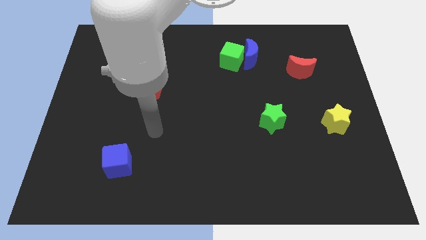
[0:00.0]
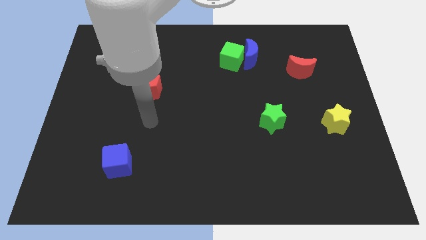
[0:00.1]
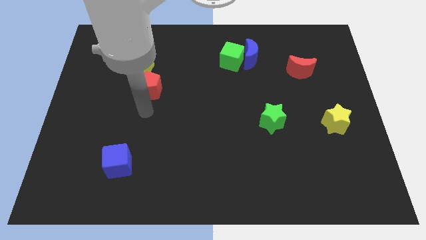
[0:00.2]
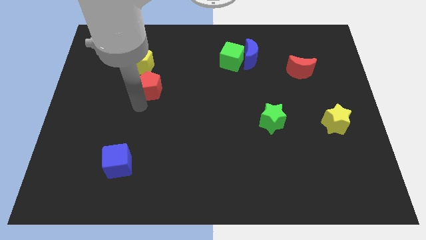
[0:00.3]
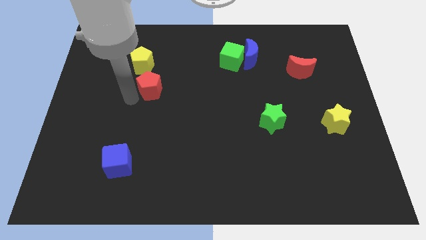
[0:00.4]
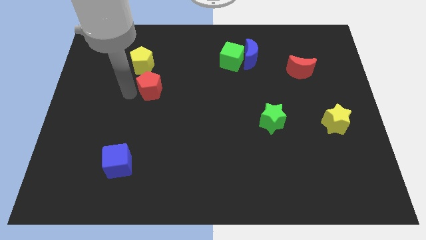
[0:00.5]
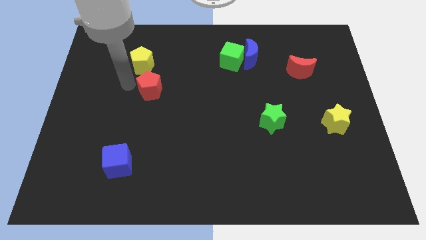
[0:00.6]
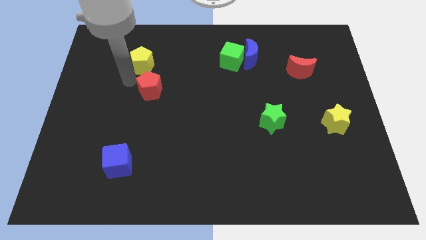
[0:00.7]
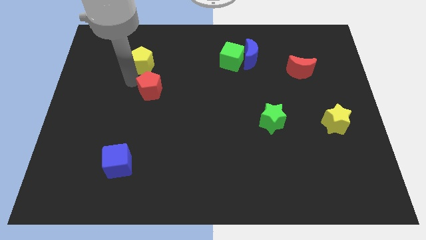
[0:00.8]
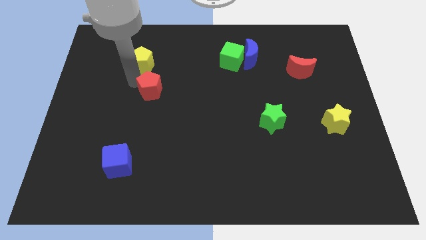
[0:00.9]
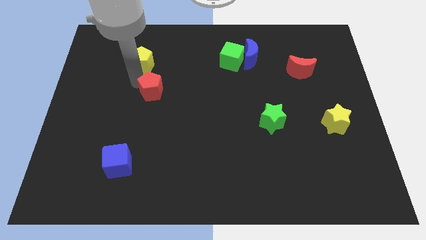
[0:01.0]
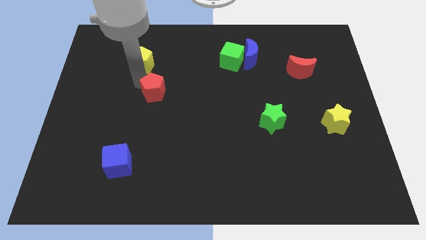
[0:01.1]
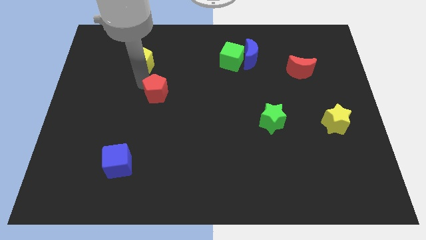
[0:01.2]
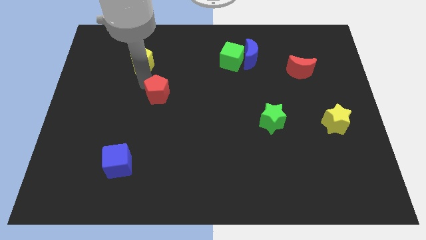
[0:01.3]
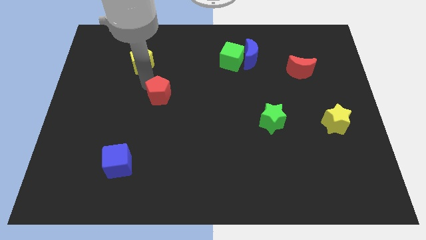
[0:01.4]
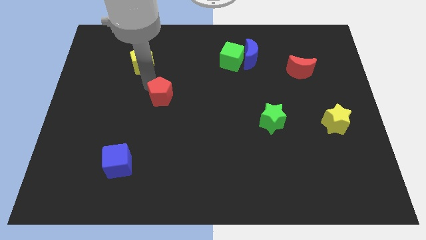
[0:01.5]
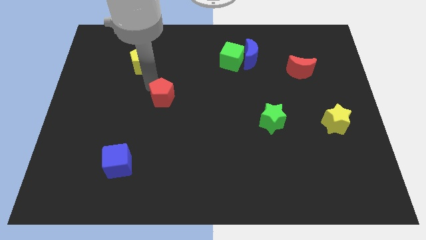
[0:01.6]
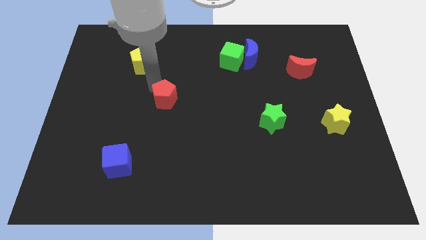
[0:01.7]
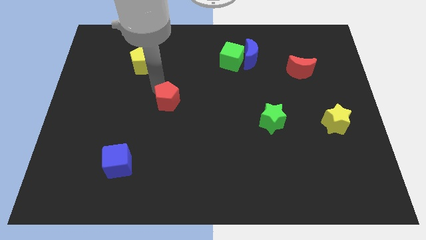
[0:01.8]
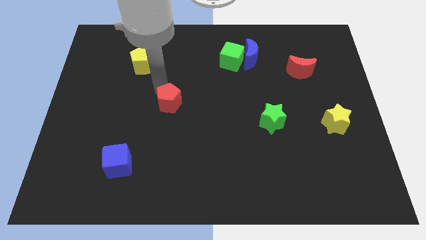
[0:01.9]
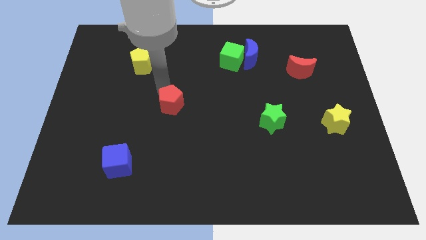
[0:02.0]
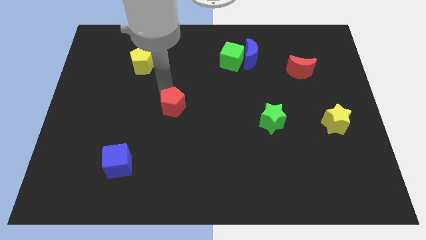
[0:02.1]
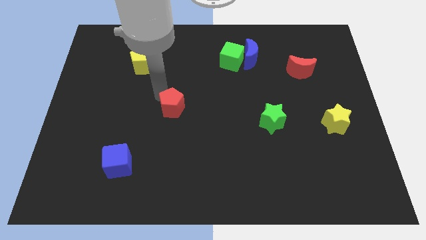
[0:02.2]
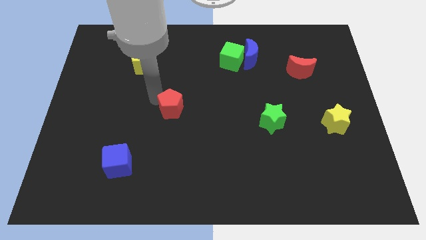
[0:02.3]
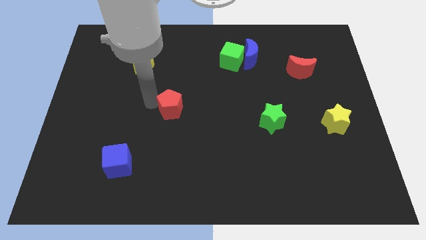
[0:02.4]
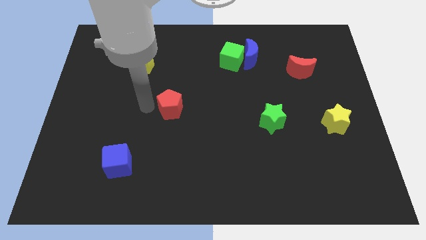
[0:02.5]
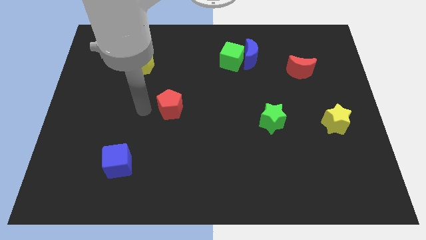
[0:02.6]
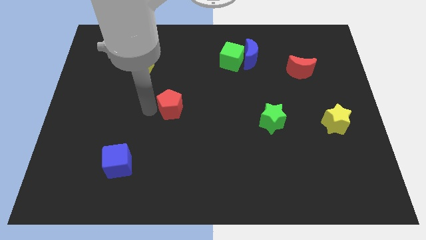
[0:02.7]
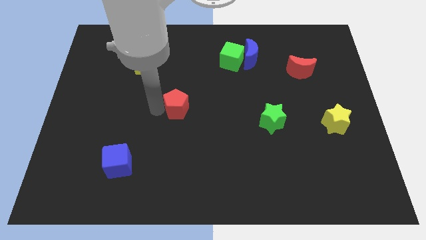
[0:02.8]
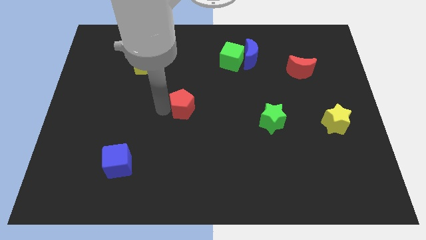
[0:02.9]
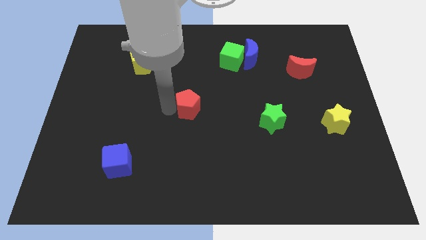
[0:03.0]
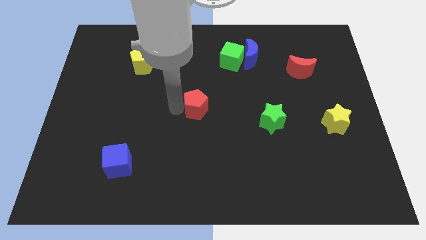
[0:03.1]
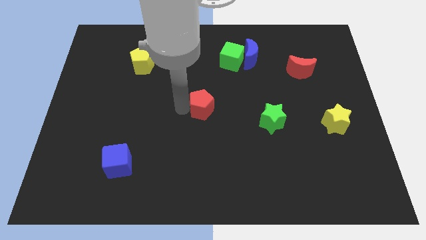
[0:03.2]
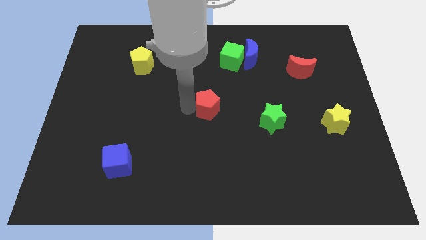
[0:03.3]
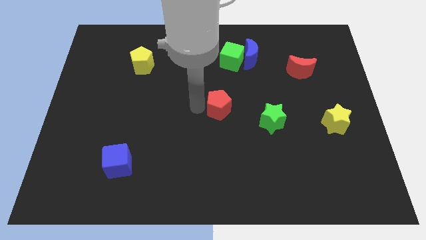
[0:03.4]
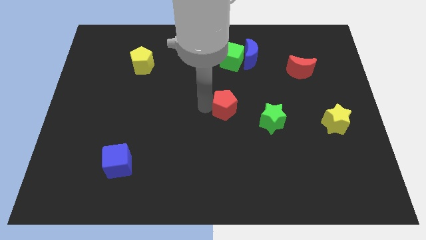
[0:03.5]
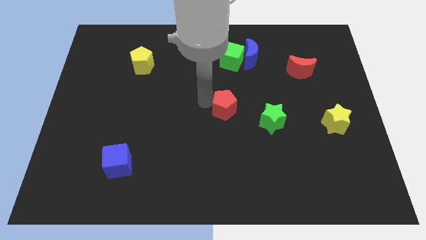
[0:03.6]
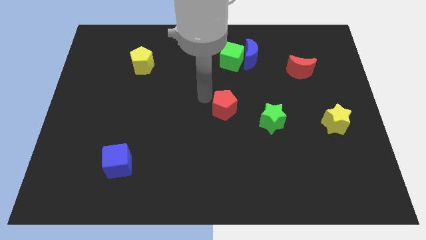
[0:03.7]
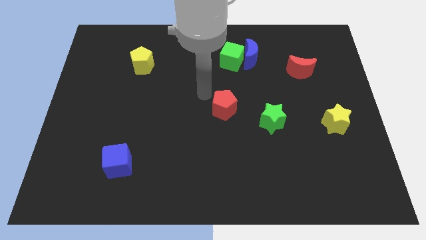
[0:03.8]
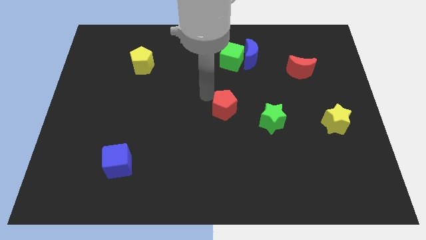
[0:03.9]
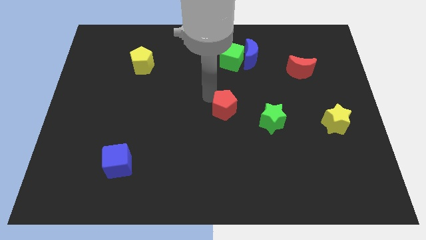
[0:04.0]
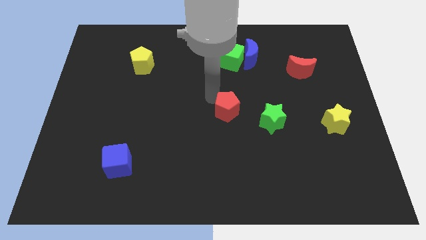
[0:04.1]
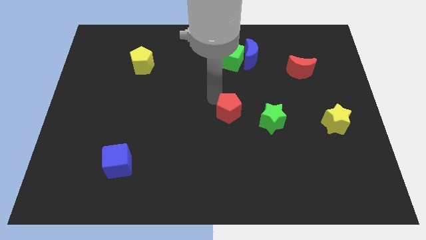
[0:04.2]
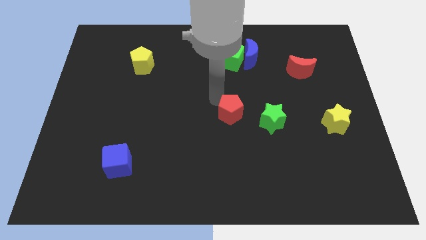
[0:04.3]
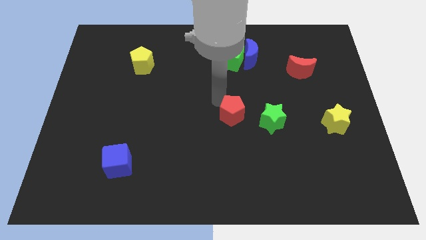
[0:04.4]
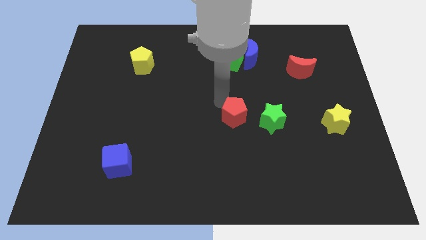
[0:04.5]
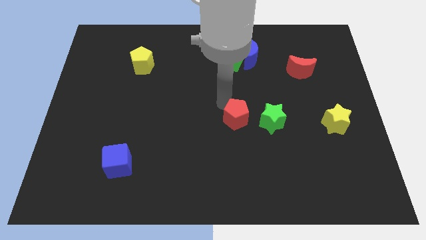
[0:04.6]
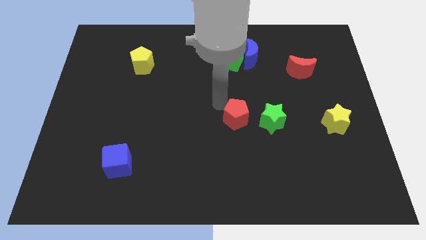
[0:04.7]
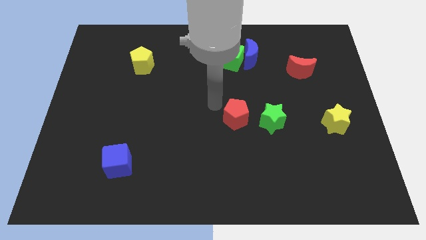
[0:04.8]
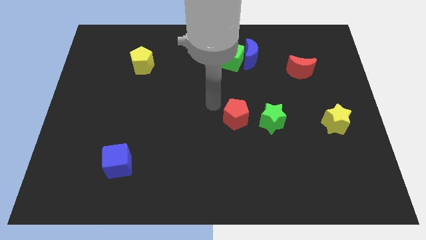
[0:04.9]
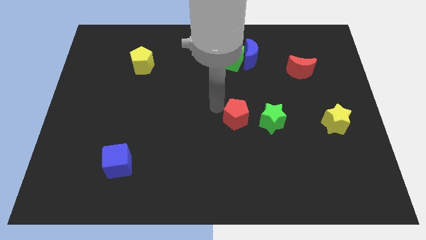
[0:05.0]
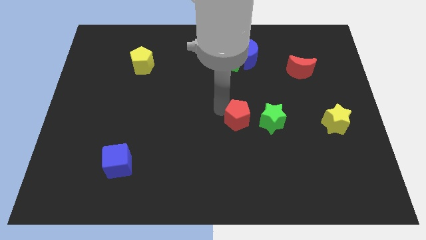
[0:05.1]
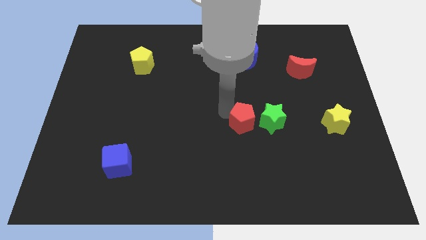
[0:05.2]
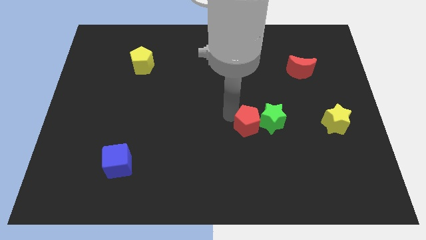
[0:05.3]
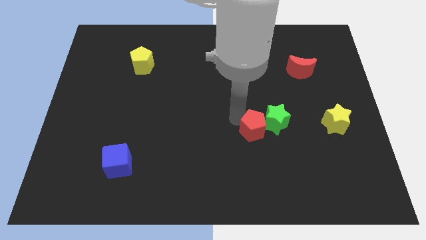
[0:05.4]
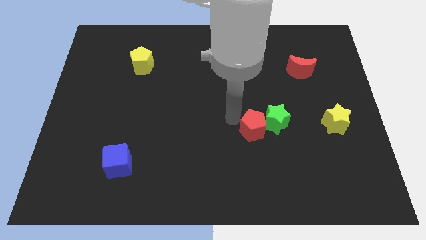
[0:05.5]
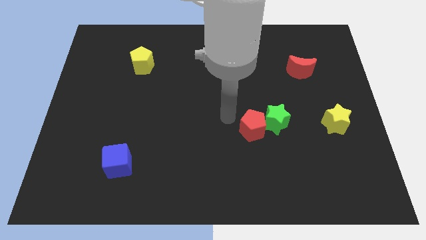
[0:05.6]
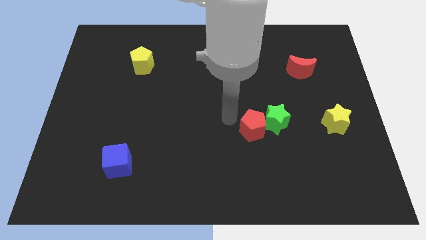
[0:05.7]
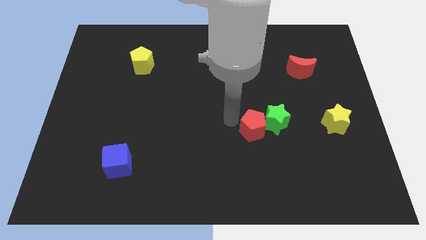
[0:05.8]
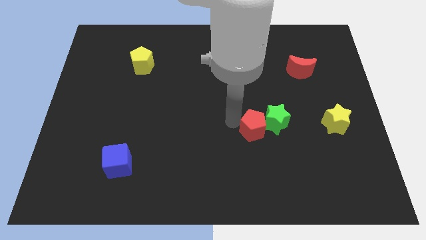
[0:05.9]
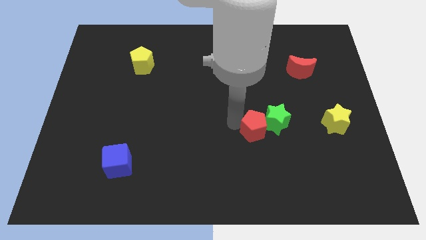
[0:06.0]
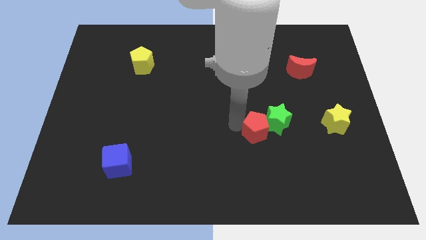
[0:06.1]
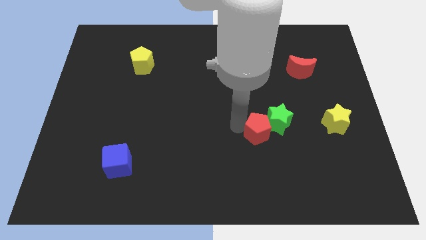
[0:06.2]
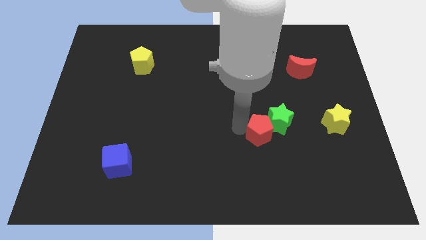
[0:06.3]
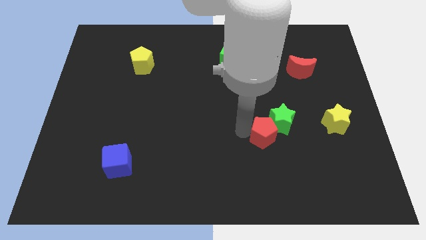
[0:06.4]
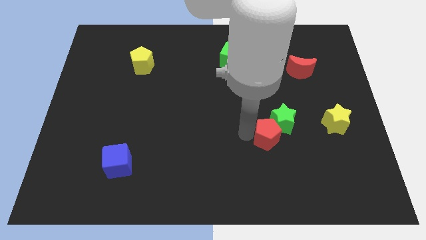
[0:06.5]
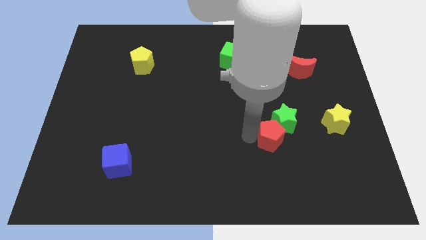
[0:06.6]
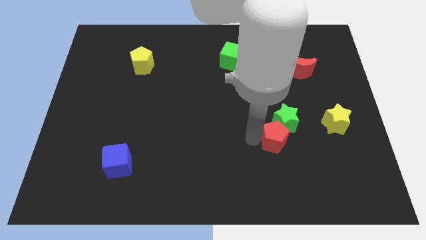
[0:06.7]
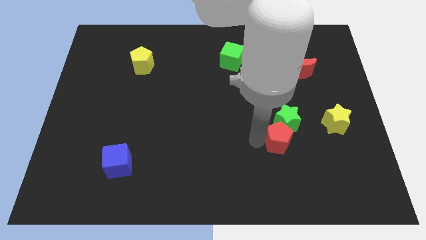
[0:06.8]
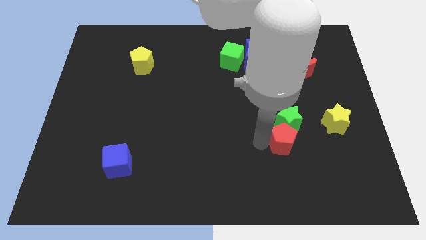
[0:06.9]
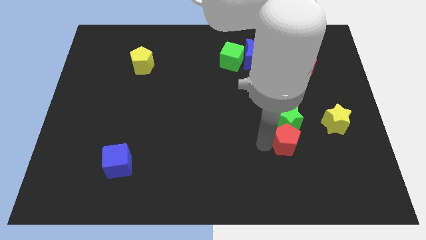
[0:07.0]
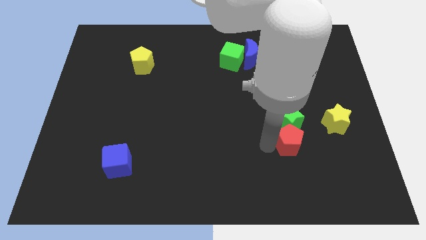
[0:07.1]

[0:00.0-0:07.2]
put the red pentagon to the bottom right side of the green star

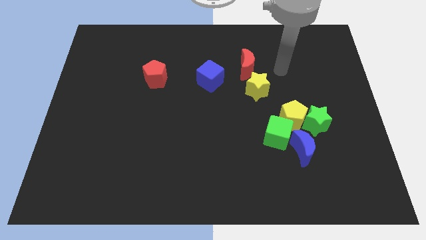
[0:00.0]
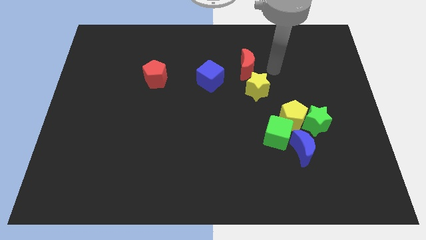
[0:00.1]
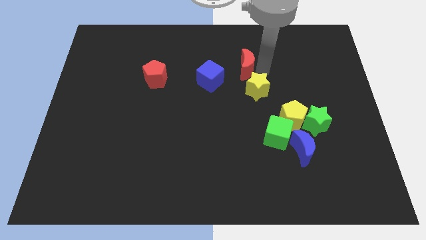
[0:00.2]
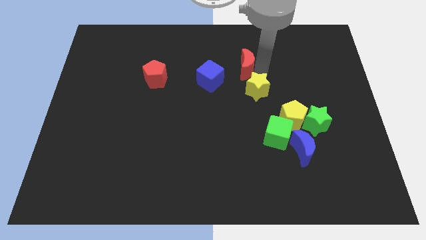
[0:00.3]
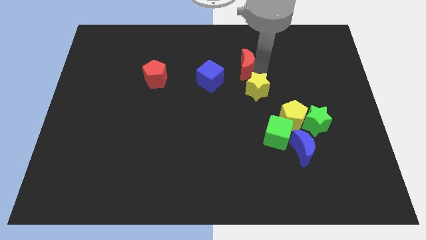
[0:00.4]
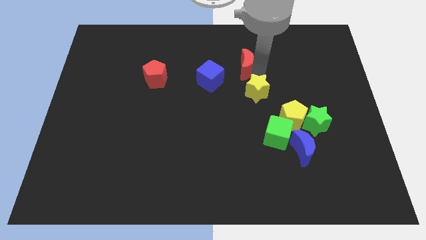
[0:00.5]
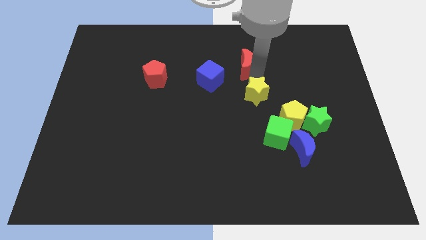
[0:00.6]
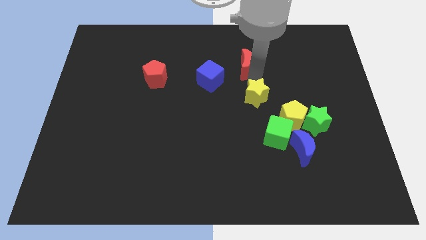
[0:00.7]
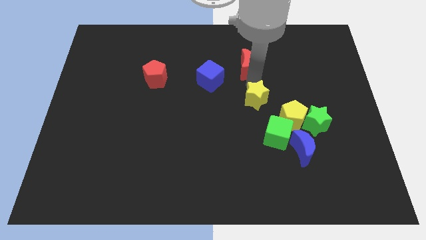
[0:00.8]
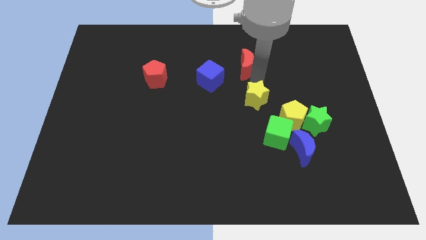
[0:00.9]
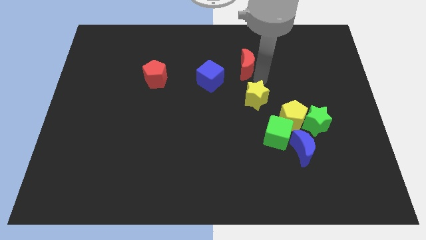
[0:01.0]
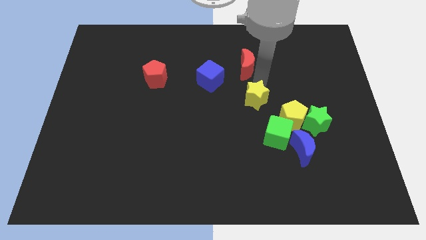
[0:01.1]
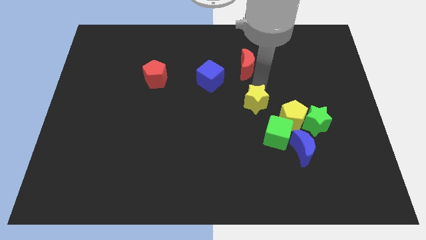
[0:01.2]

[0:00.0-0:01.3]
put the yellow star to the top left of the green cube
